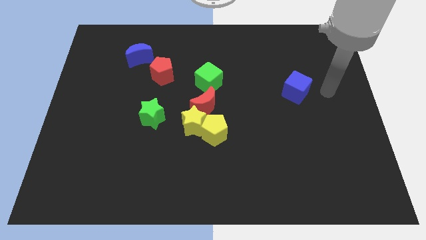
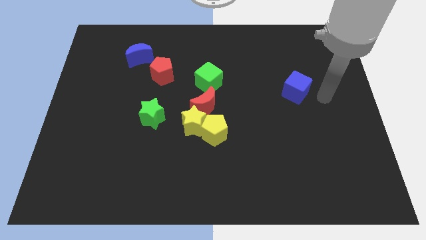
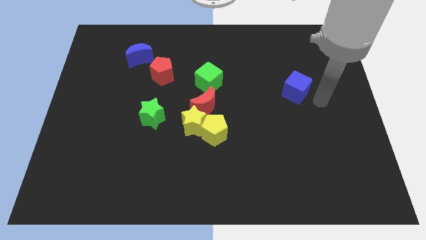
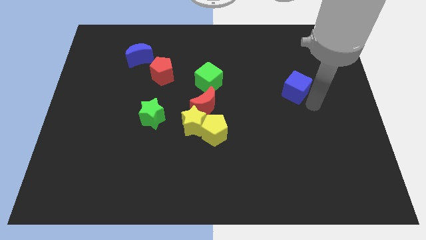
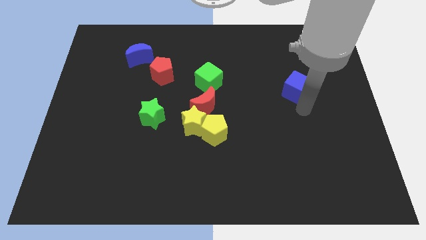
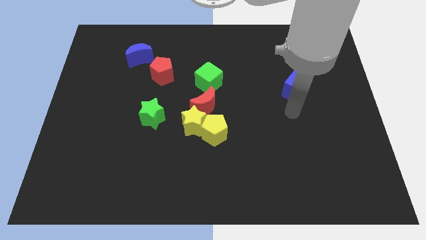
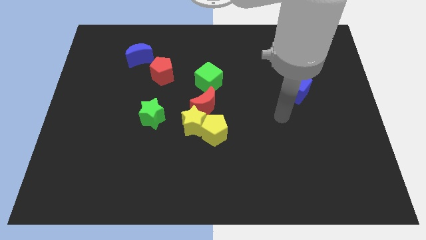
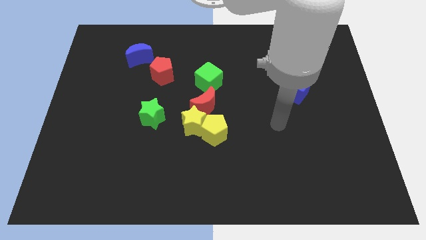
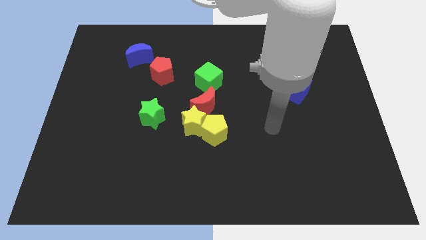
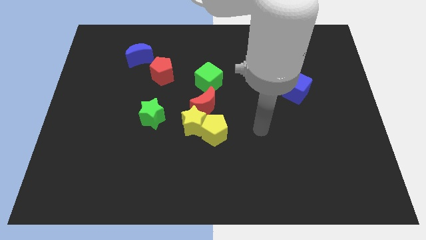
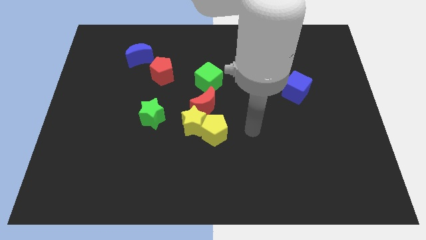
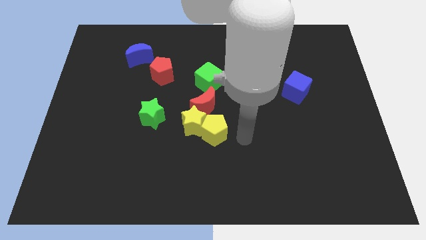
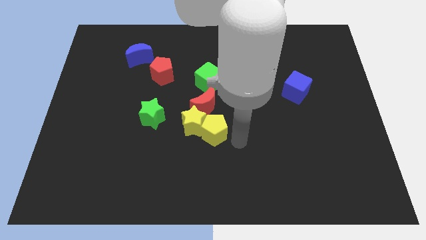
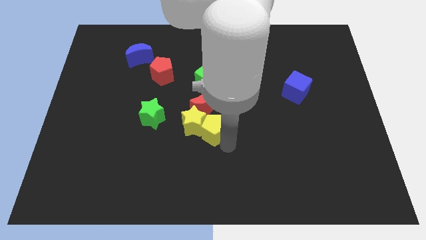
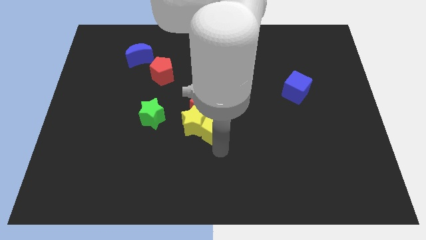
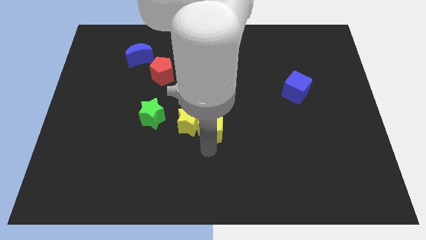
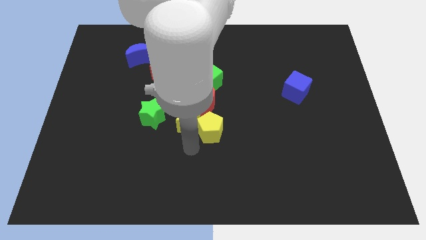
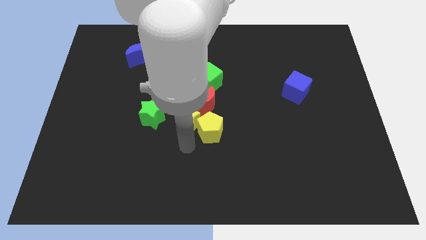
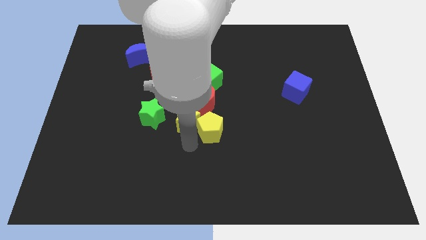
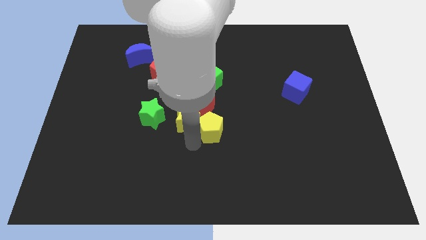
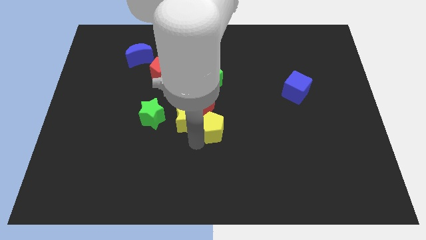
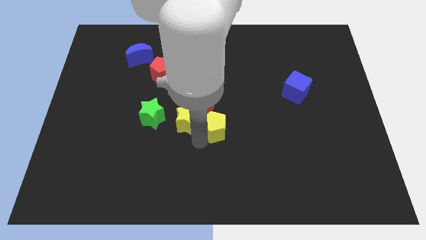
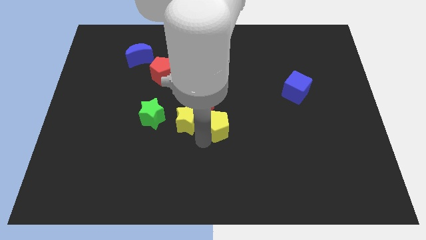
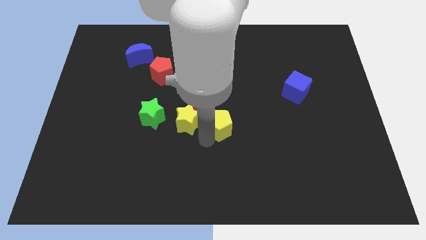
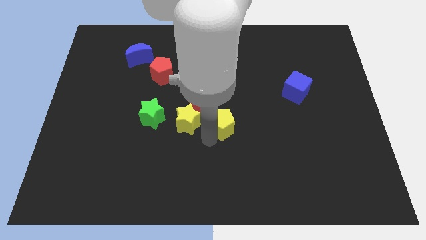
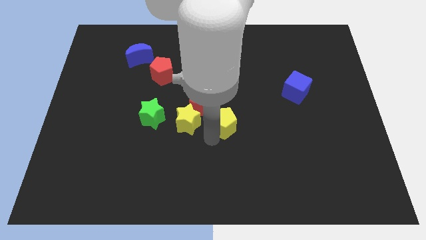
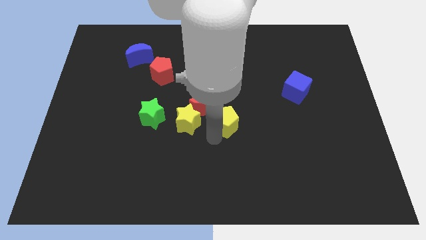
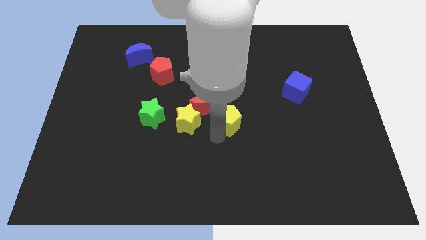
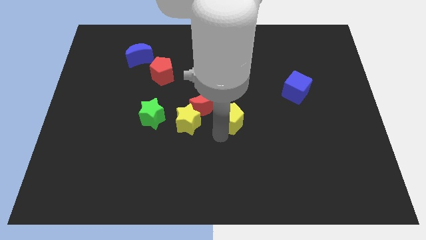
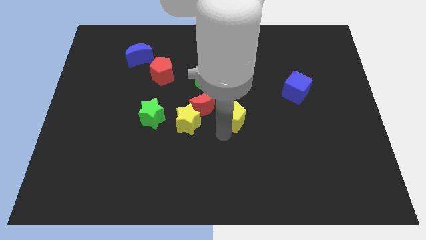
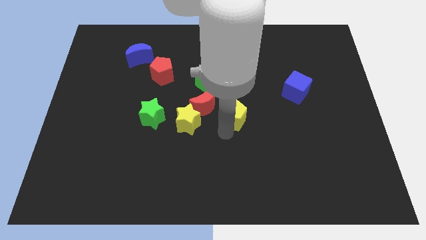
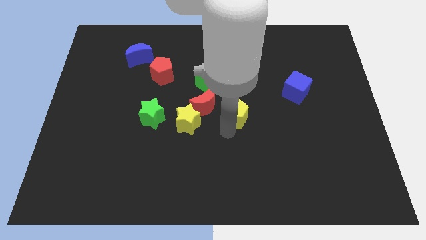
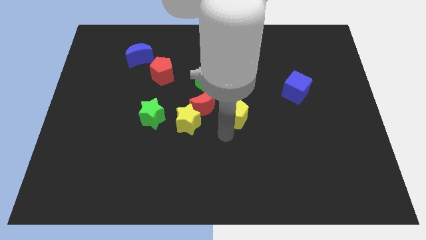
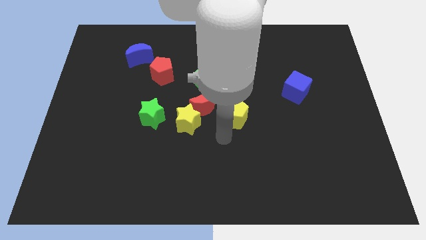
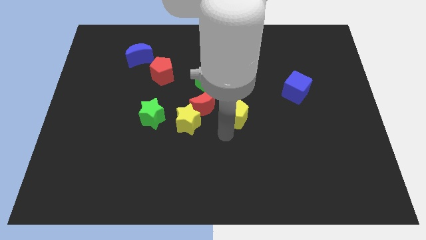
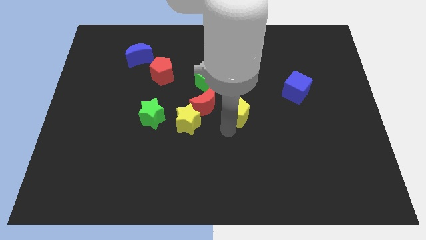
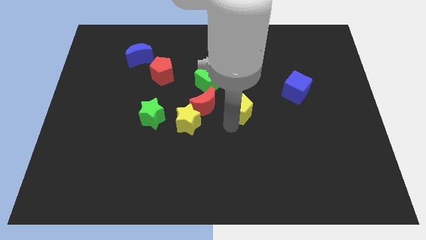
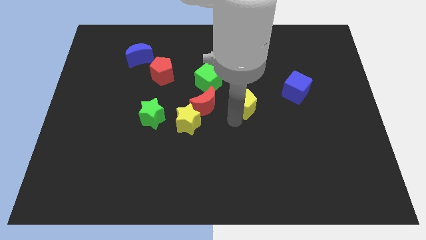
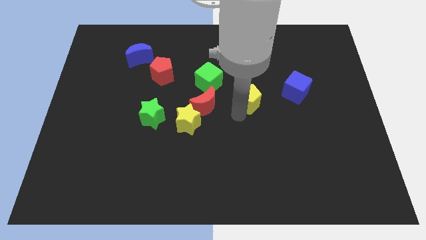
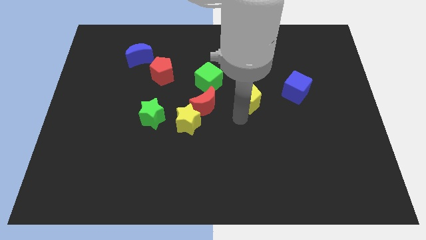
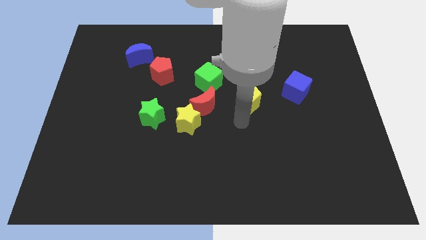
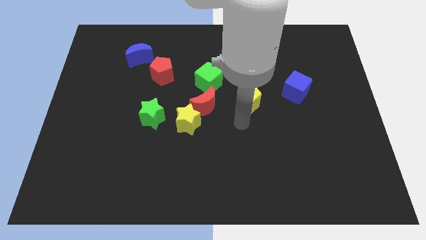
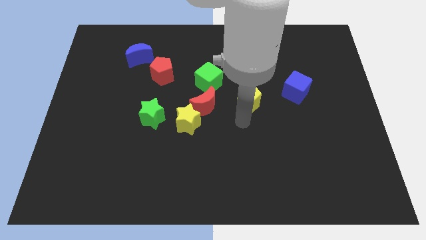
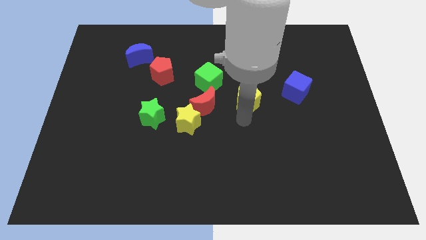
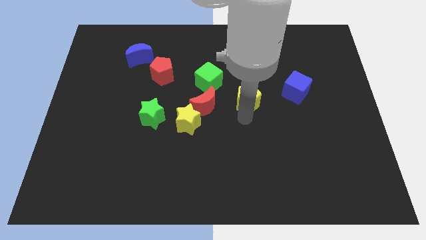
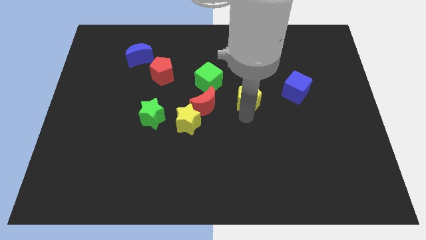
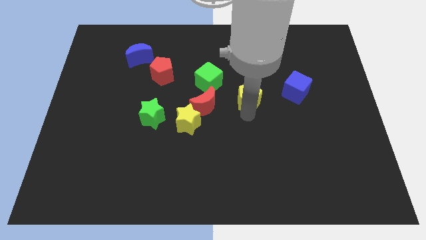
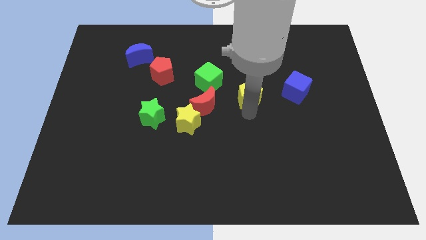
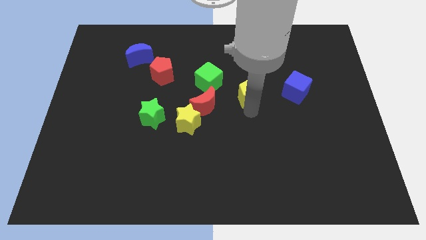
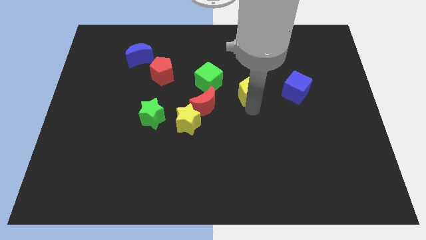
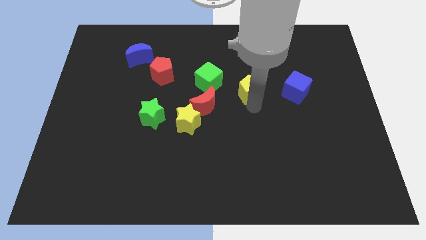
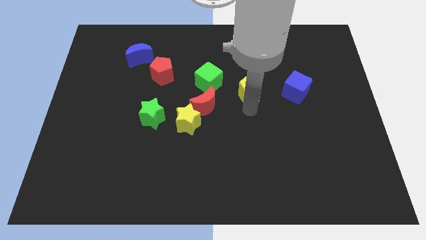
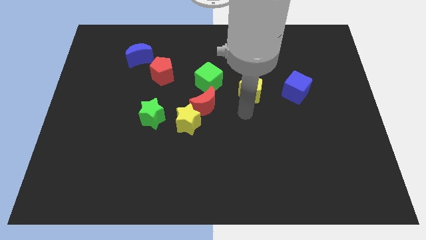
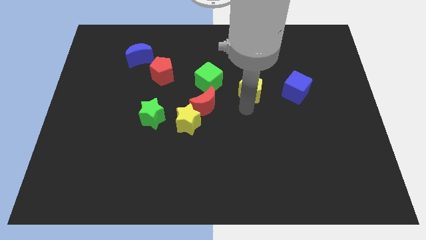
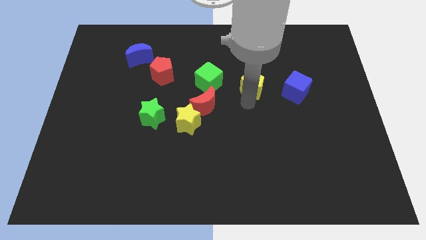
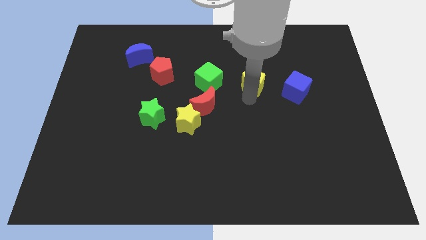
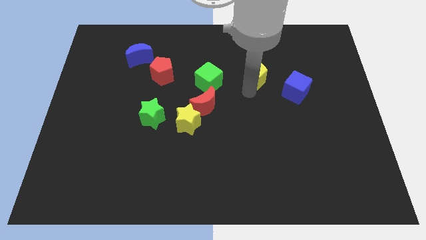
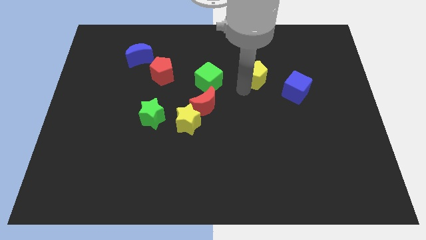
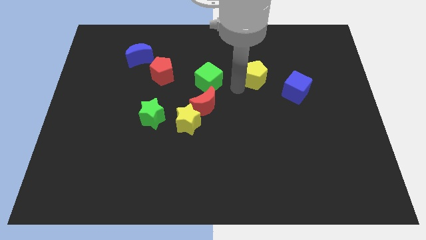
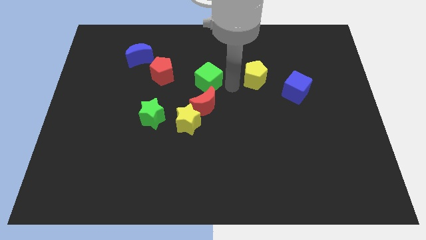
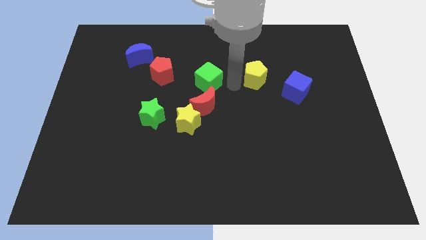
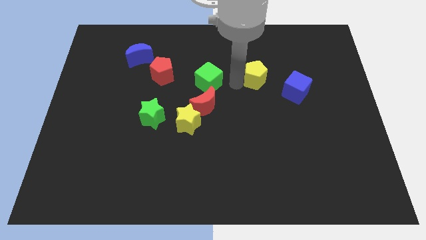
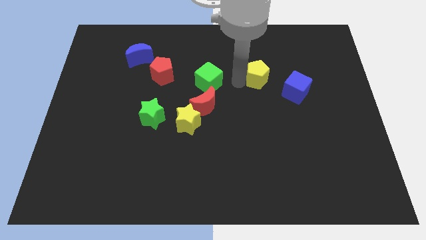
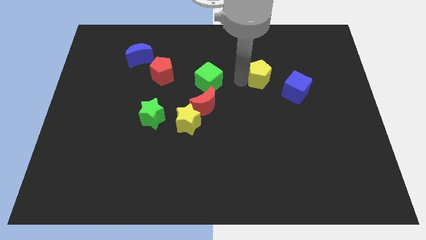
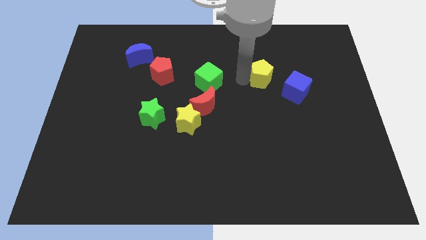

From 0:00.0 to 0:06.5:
slide the yellow pentagon diagonally upwards and right

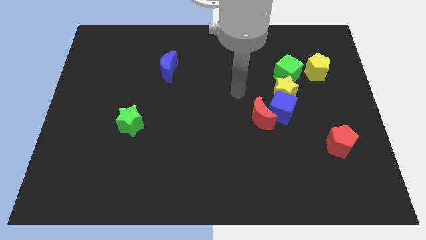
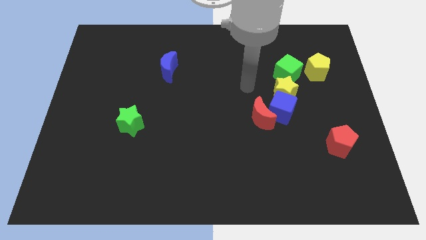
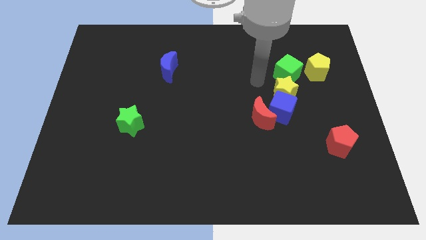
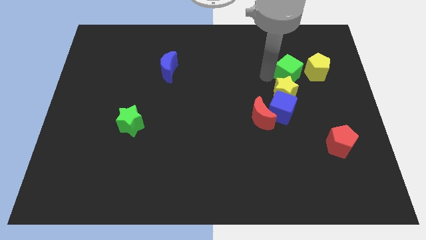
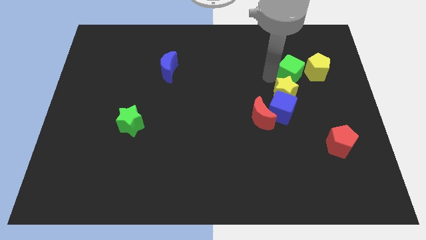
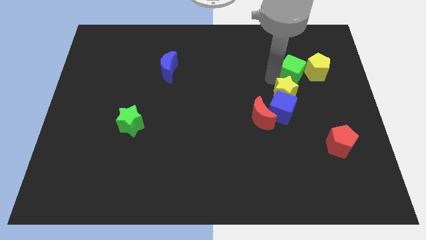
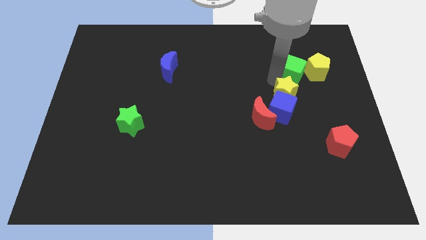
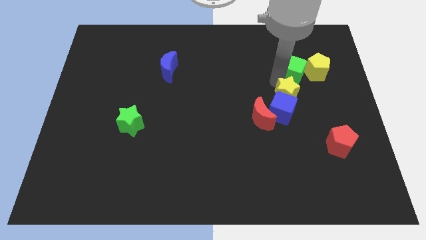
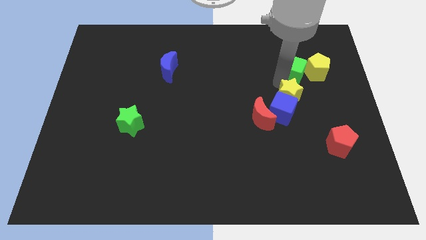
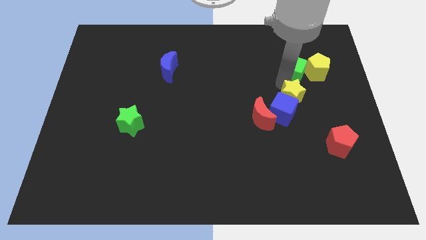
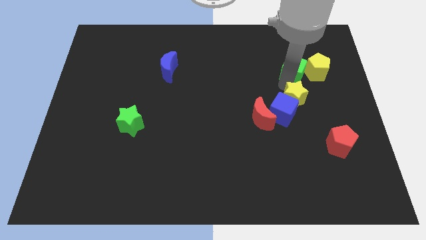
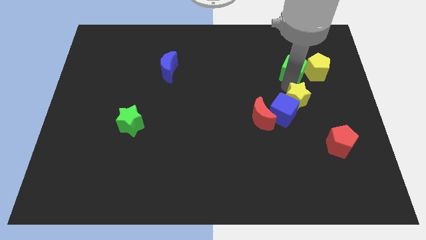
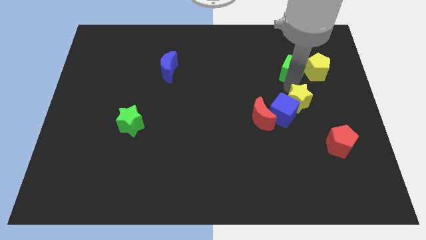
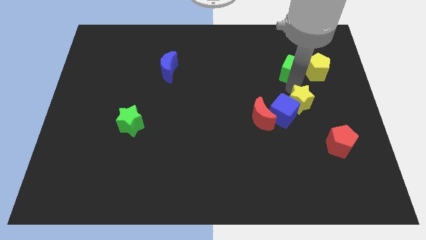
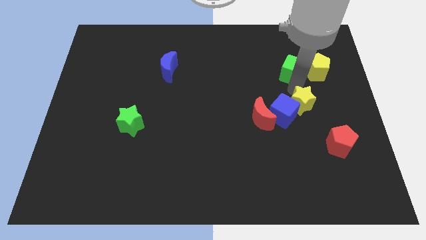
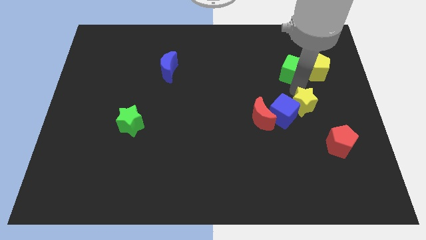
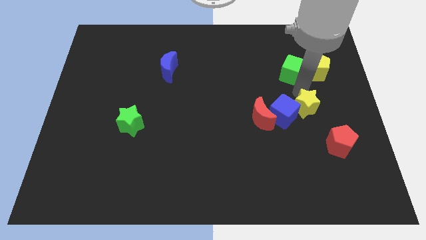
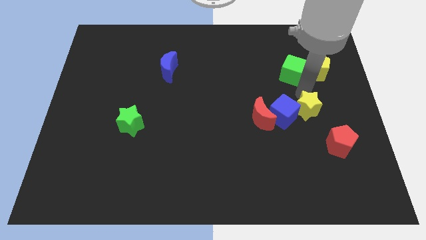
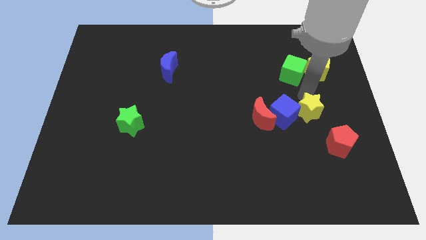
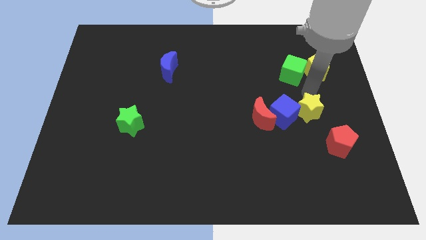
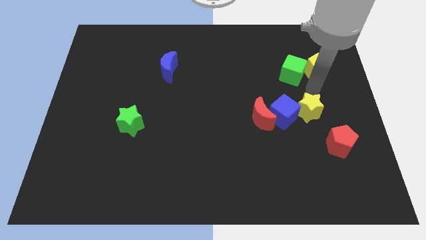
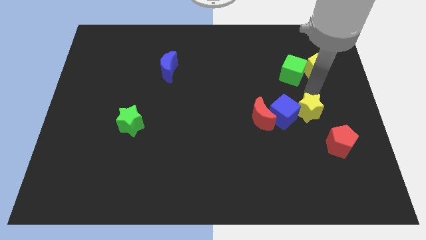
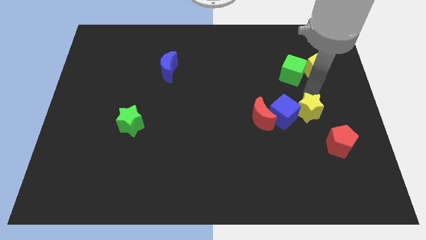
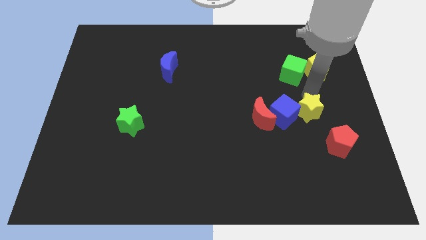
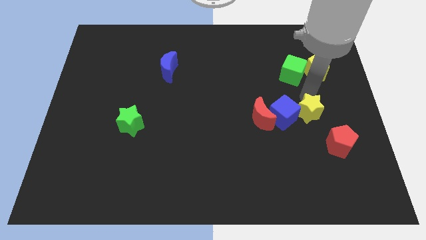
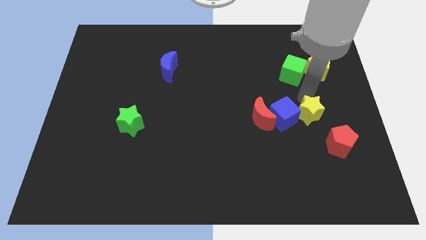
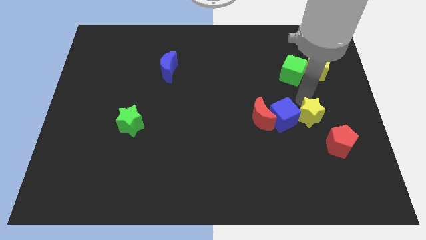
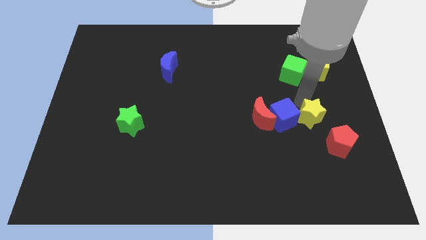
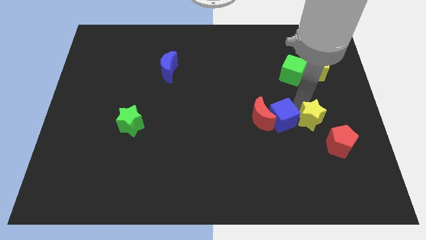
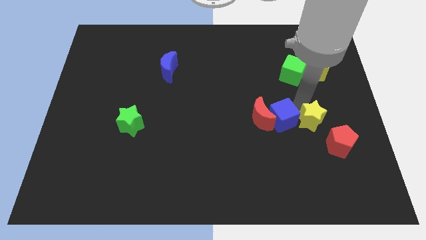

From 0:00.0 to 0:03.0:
push the yellow star downwards a bit
